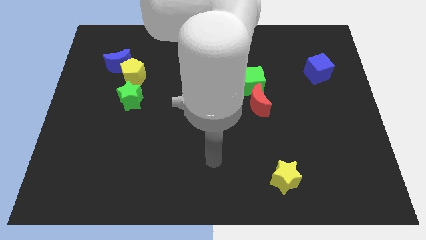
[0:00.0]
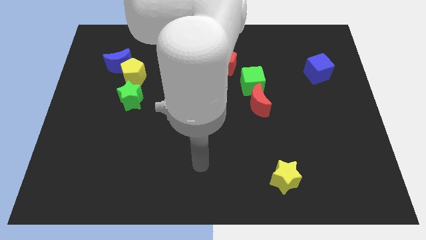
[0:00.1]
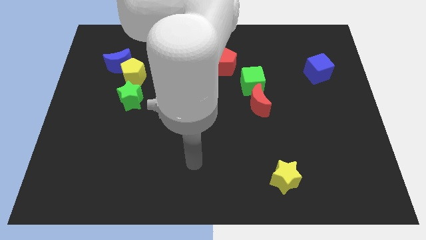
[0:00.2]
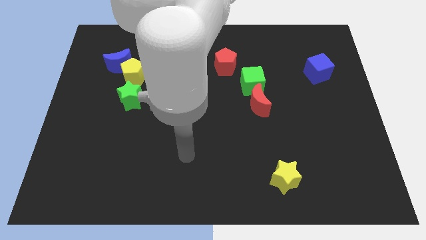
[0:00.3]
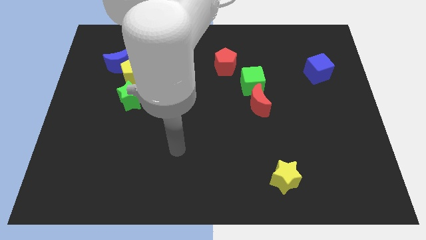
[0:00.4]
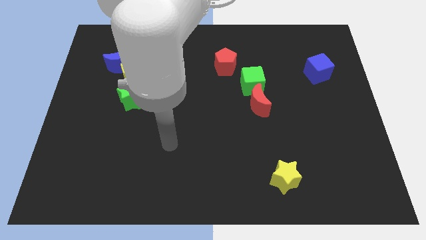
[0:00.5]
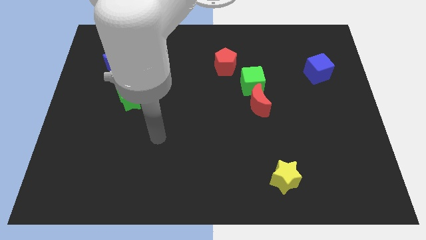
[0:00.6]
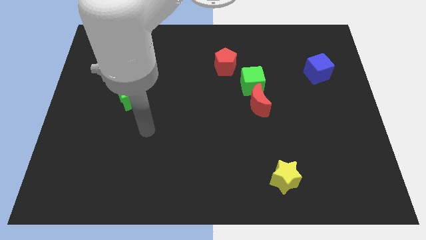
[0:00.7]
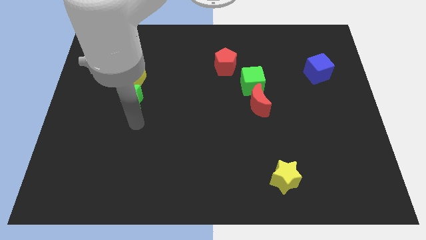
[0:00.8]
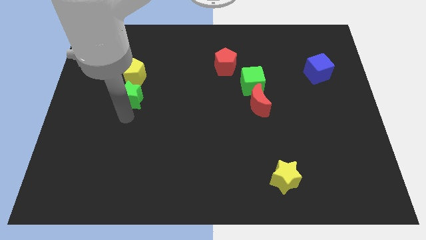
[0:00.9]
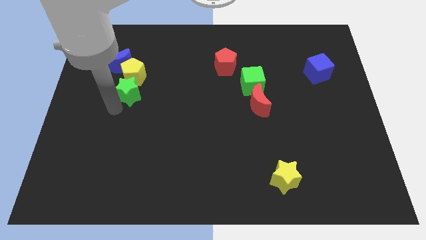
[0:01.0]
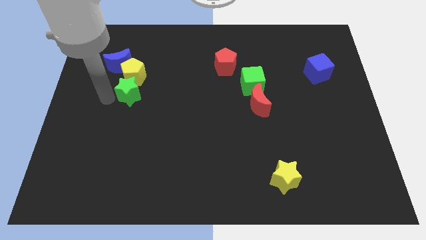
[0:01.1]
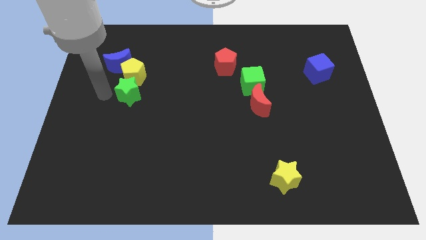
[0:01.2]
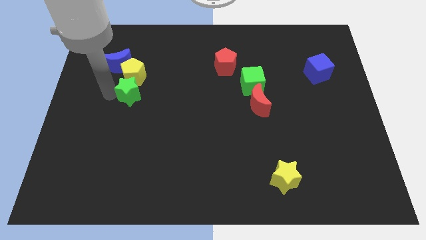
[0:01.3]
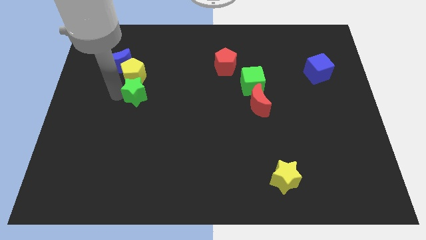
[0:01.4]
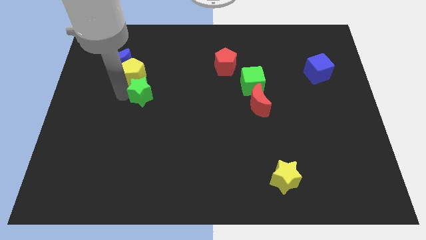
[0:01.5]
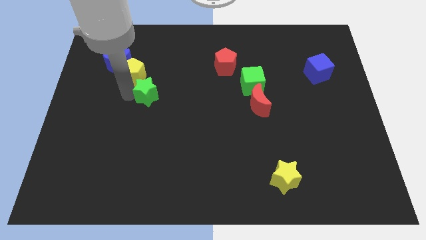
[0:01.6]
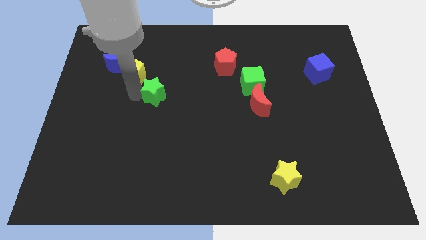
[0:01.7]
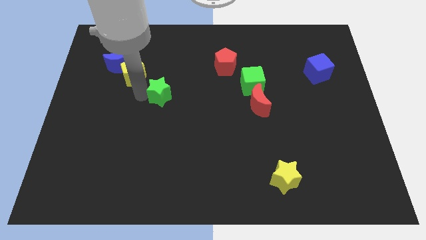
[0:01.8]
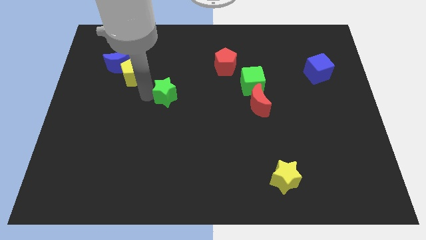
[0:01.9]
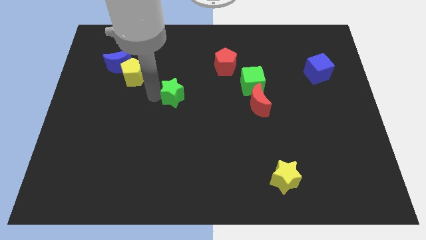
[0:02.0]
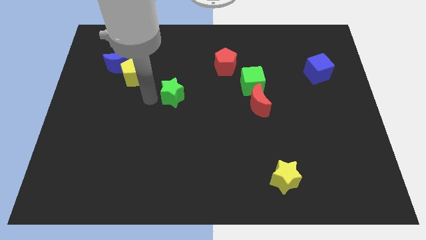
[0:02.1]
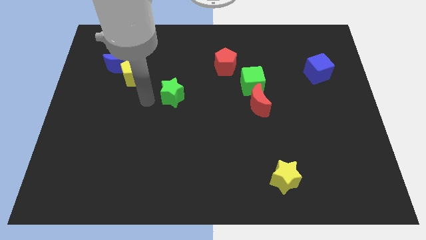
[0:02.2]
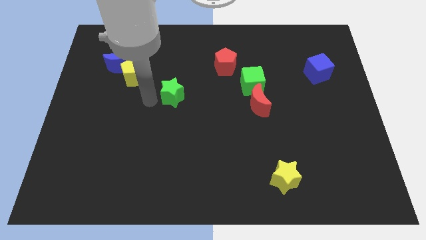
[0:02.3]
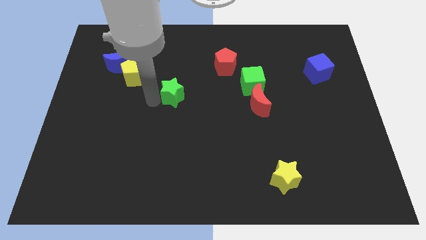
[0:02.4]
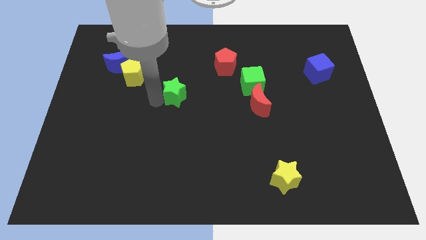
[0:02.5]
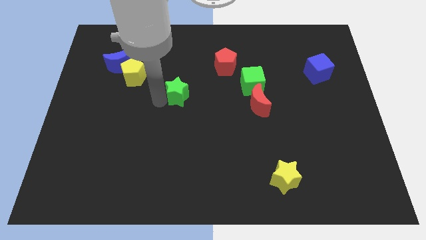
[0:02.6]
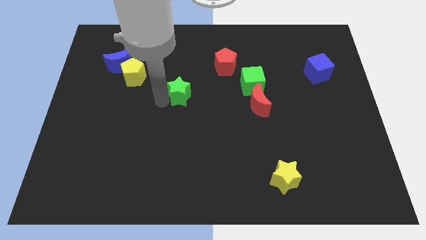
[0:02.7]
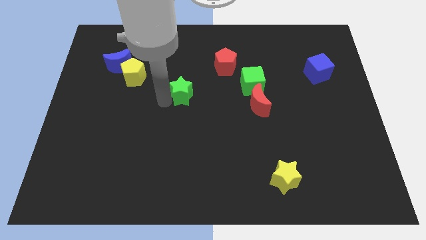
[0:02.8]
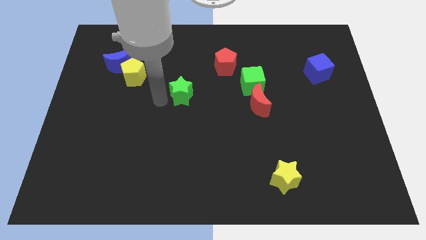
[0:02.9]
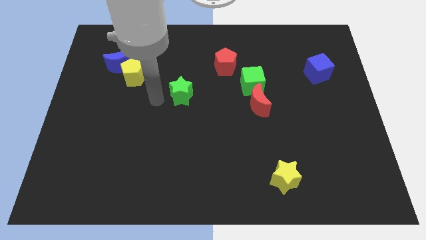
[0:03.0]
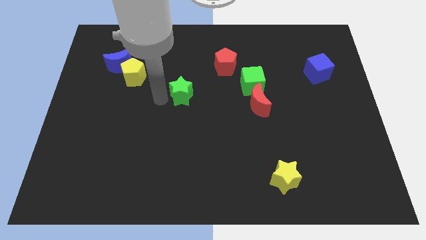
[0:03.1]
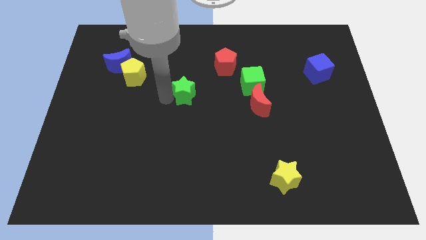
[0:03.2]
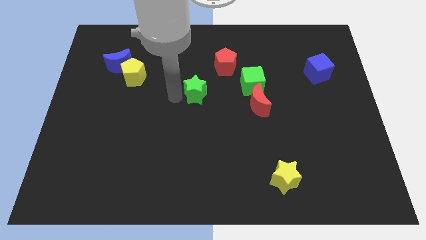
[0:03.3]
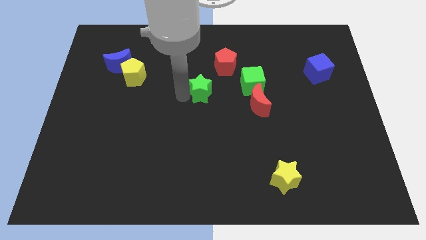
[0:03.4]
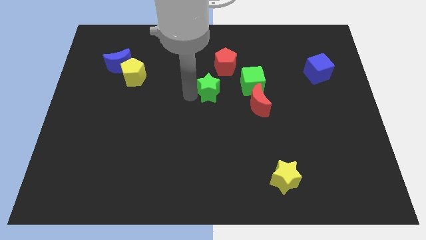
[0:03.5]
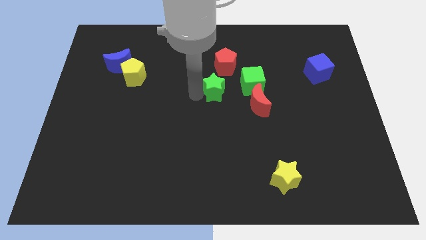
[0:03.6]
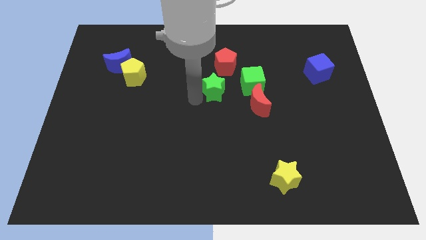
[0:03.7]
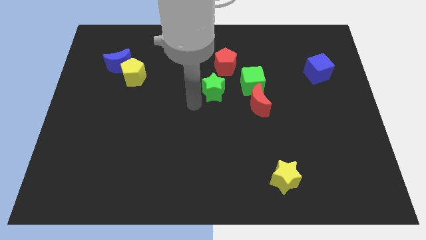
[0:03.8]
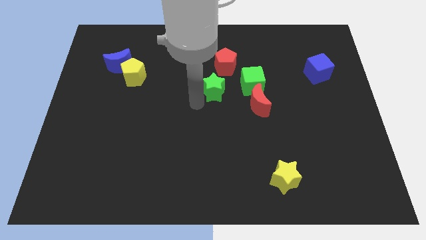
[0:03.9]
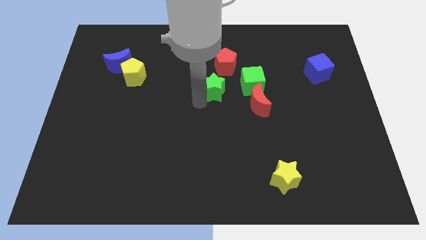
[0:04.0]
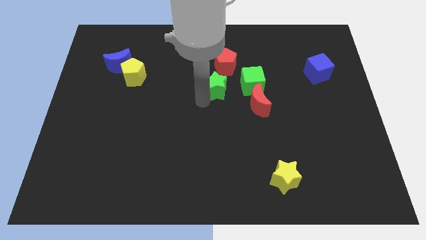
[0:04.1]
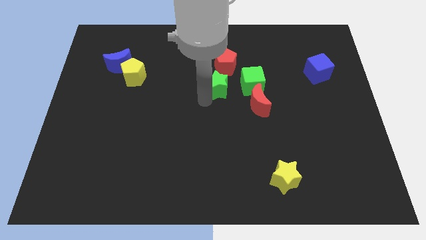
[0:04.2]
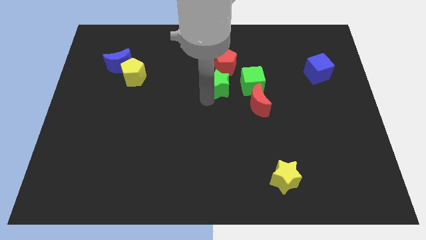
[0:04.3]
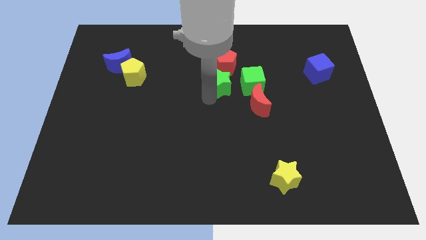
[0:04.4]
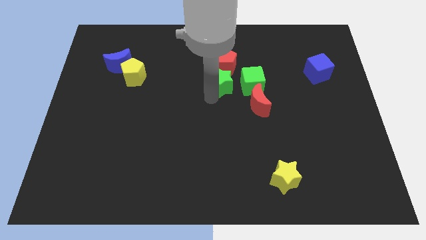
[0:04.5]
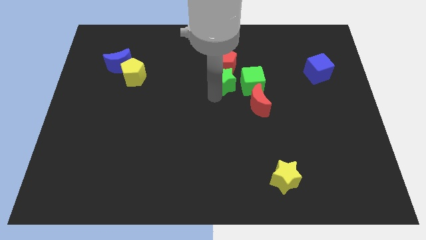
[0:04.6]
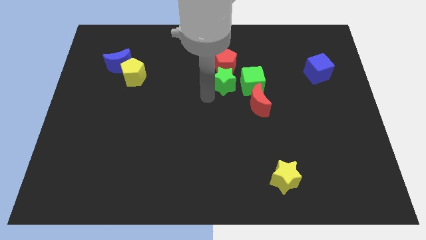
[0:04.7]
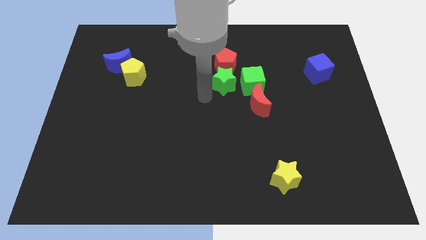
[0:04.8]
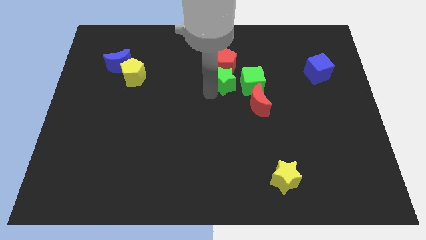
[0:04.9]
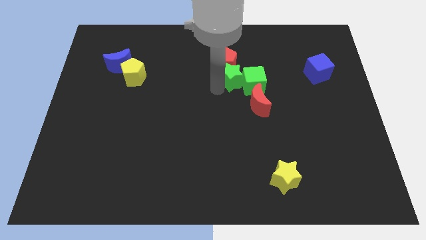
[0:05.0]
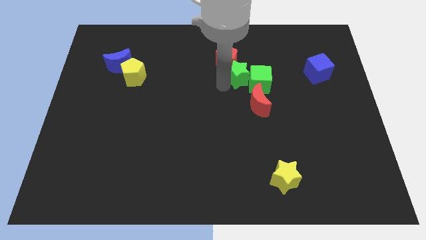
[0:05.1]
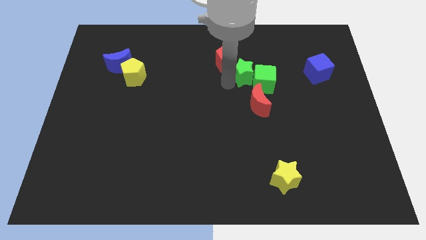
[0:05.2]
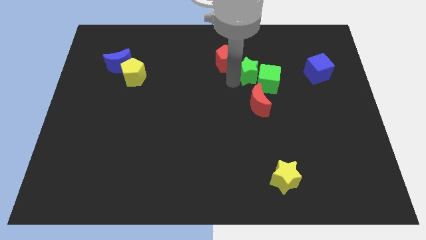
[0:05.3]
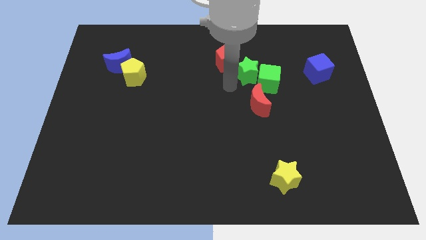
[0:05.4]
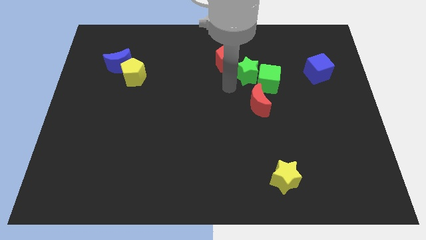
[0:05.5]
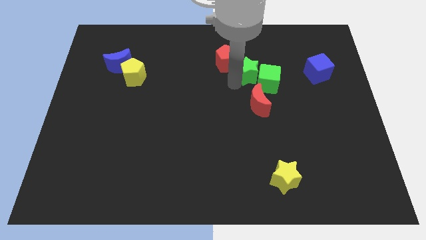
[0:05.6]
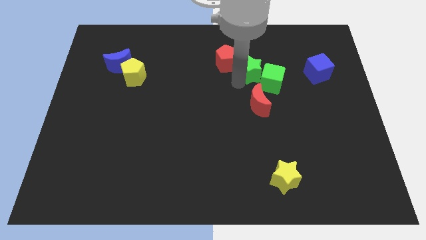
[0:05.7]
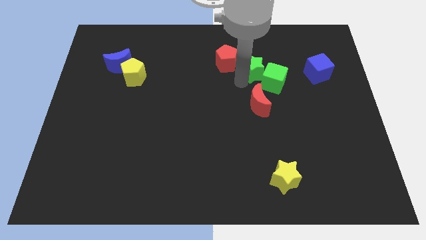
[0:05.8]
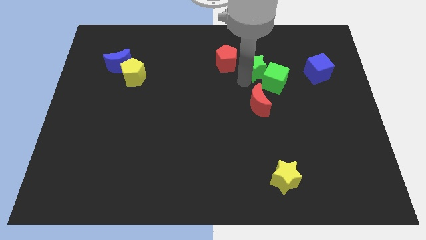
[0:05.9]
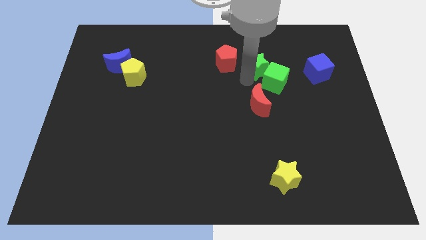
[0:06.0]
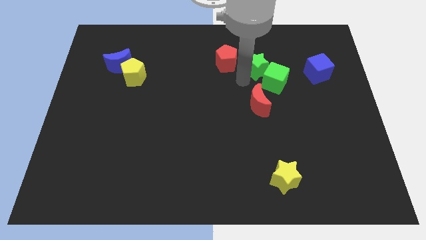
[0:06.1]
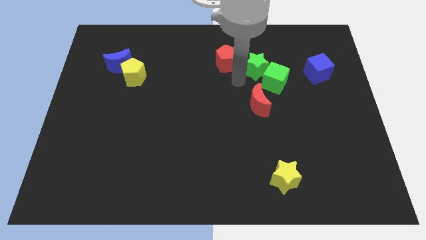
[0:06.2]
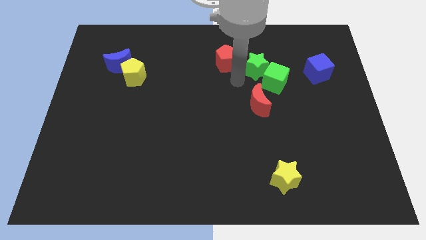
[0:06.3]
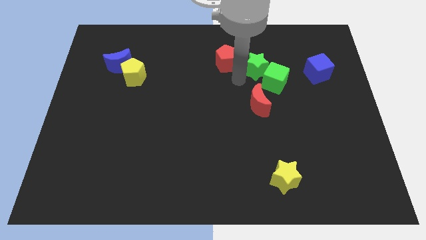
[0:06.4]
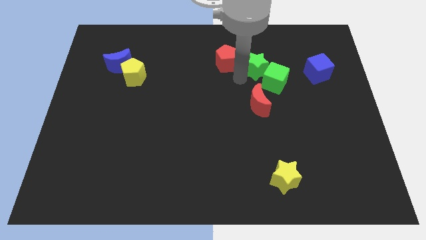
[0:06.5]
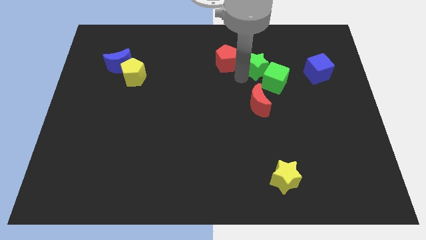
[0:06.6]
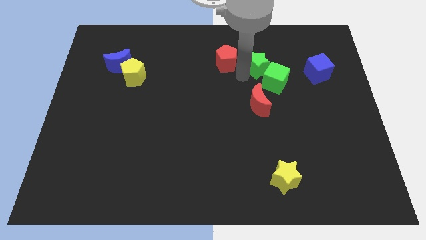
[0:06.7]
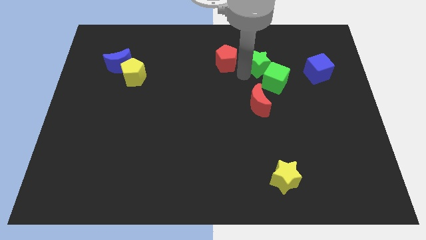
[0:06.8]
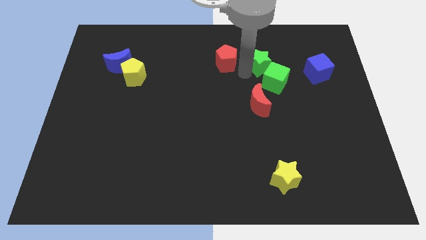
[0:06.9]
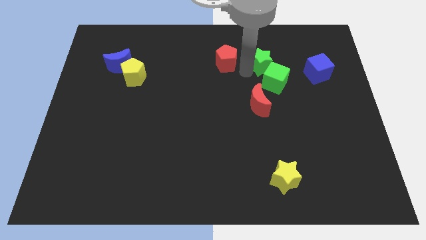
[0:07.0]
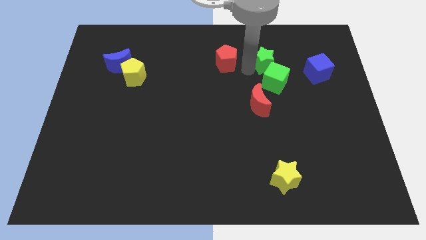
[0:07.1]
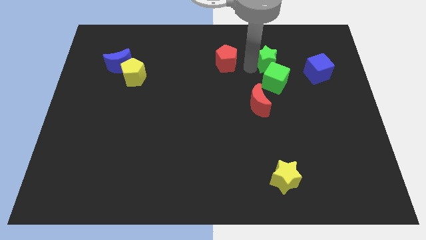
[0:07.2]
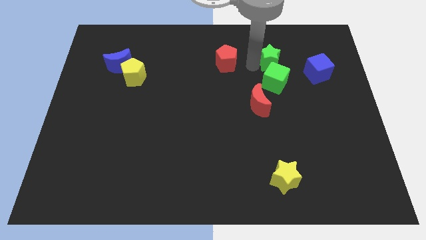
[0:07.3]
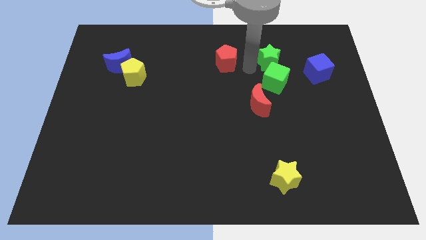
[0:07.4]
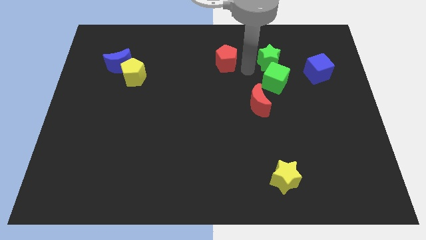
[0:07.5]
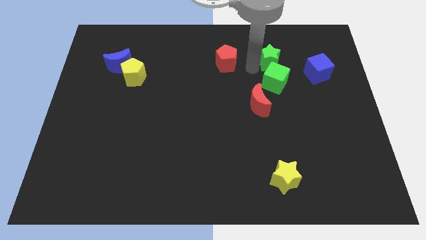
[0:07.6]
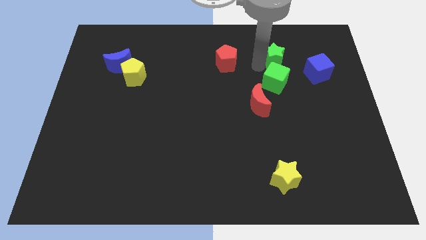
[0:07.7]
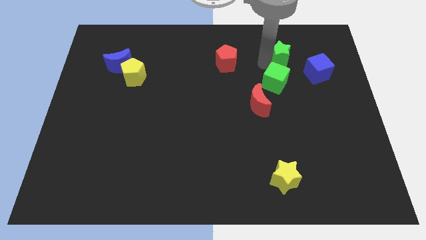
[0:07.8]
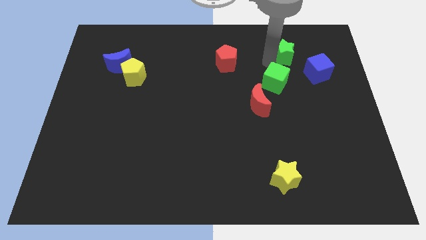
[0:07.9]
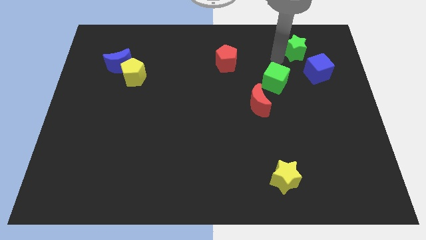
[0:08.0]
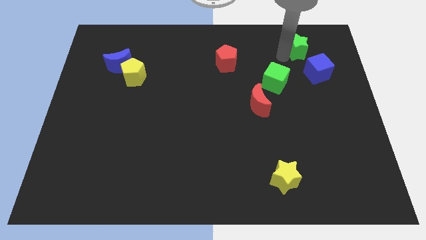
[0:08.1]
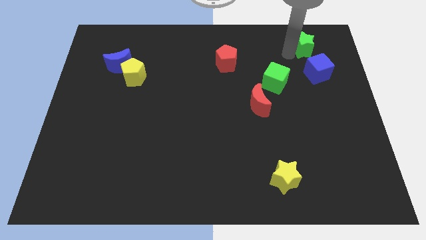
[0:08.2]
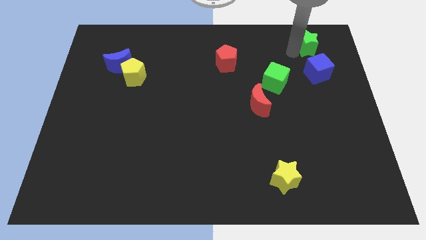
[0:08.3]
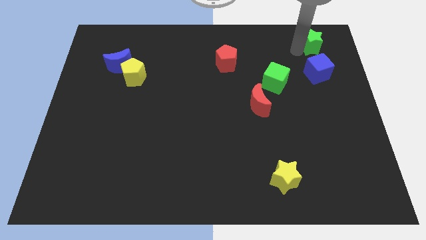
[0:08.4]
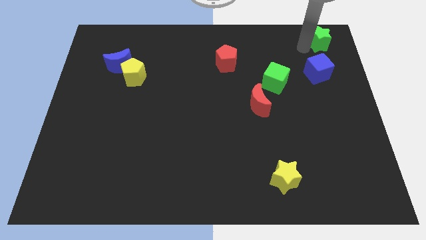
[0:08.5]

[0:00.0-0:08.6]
push the green star to the top right corner
